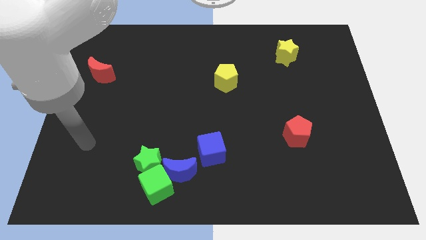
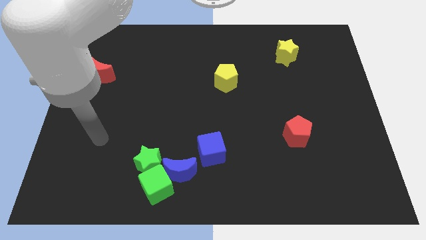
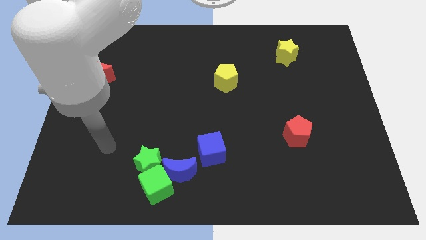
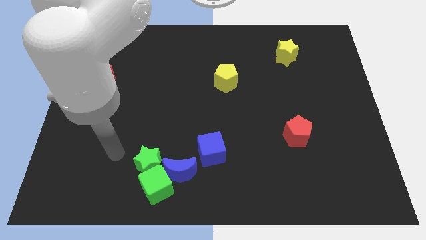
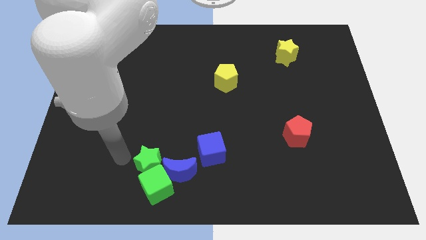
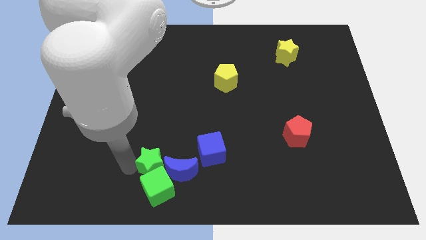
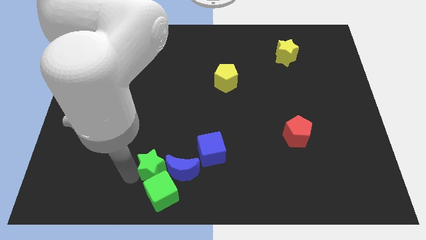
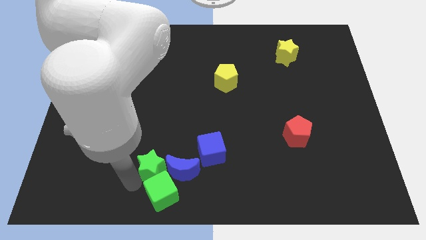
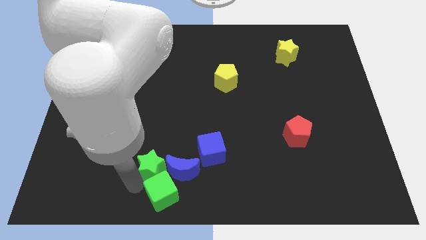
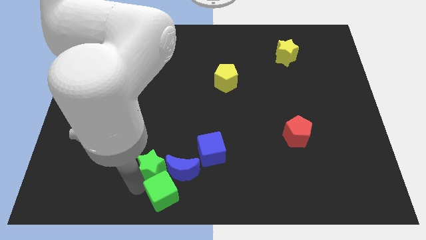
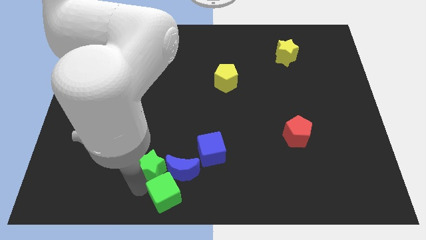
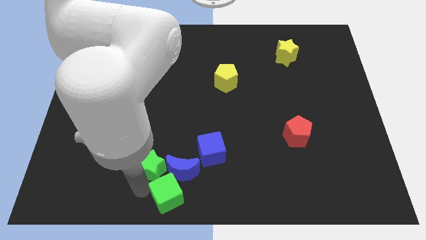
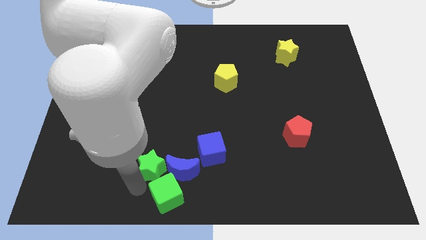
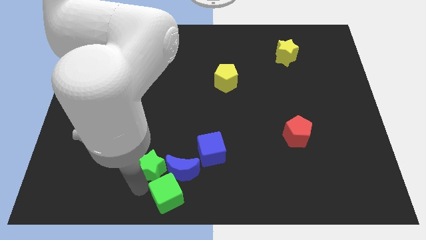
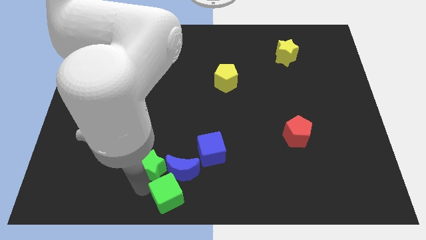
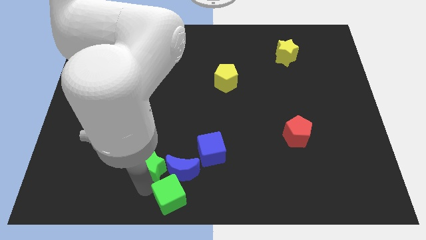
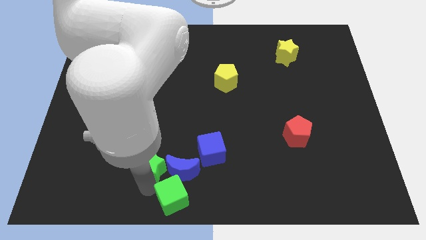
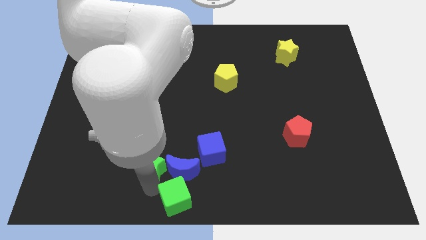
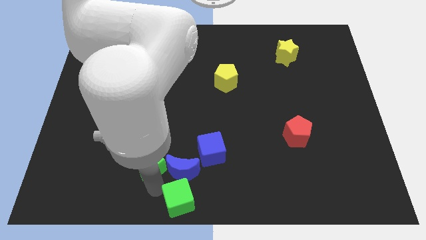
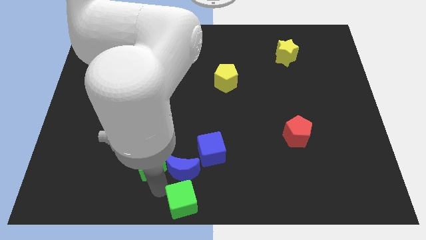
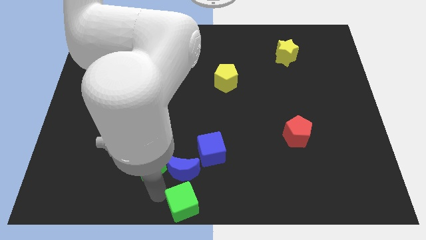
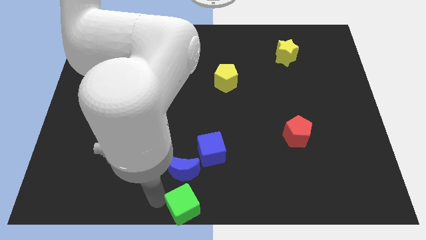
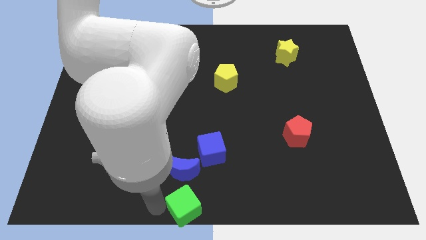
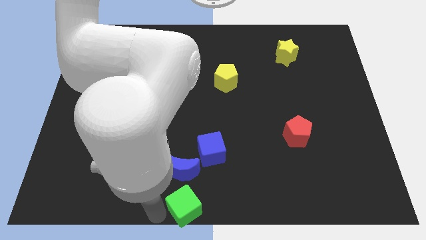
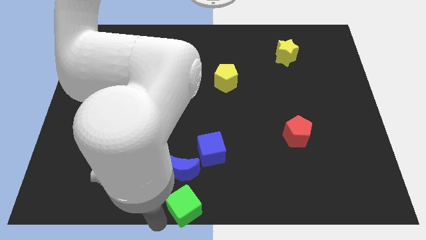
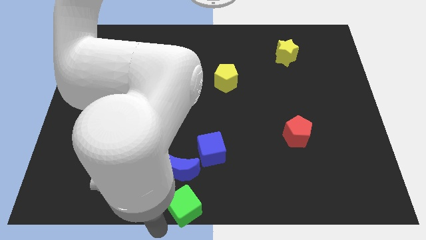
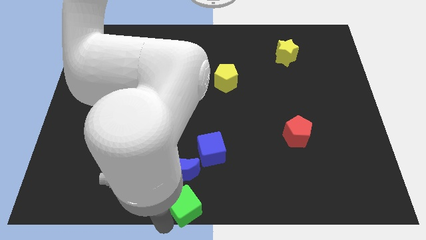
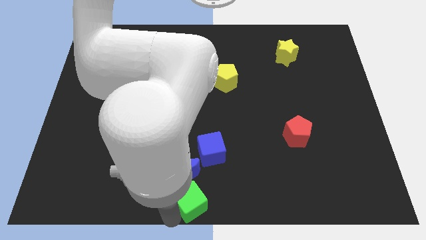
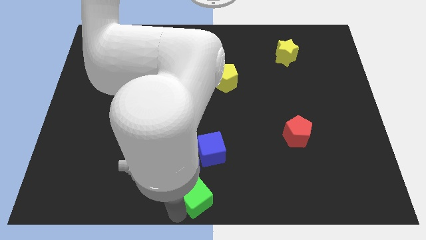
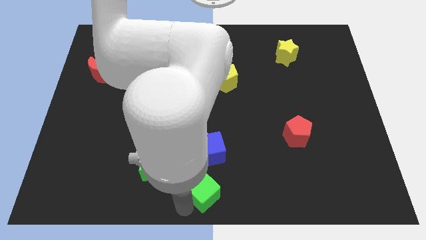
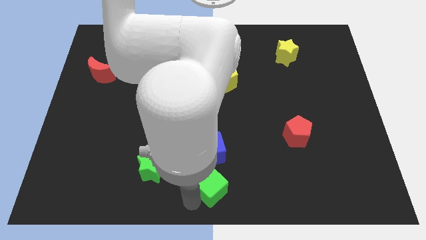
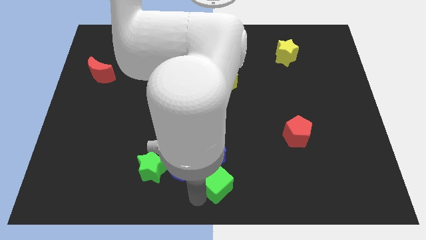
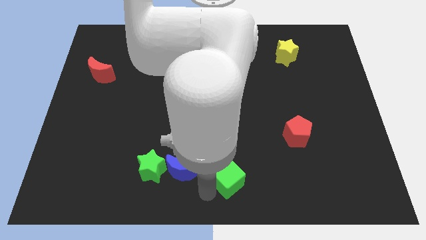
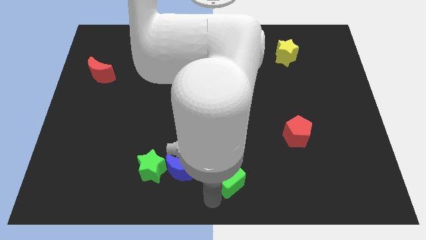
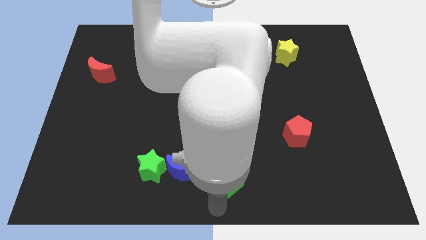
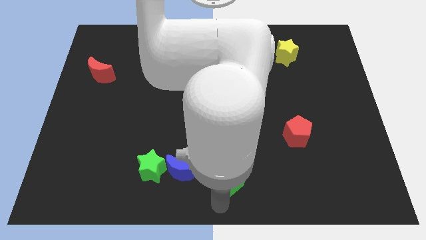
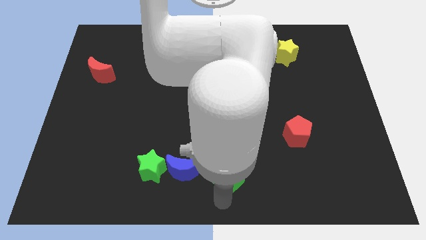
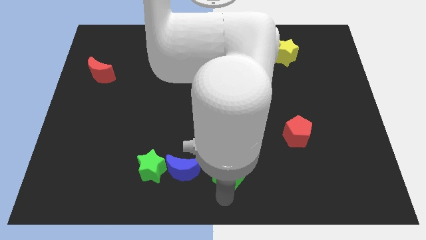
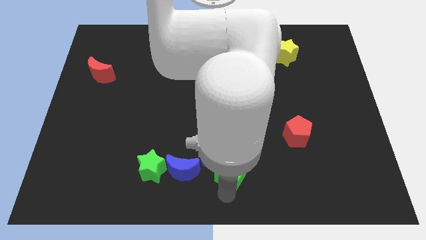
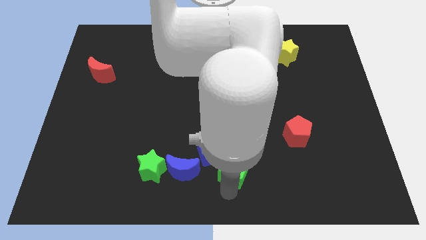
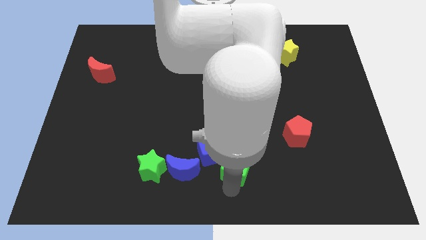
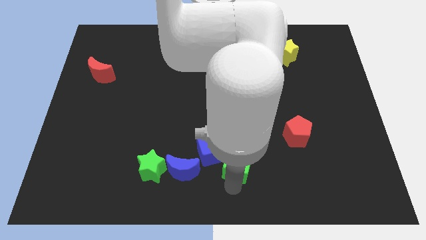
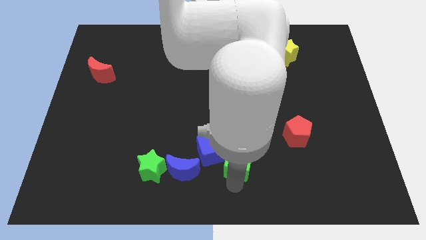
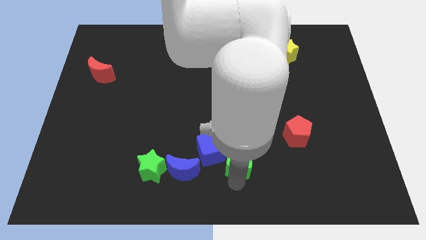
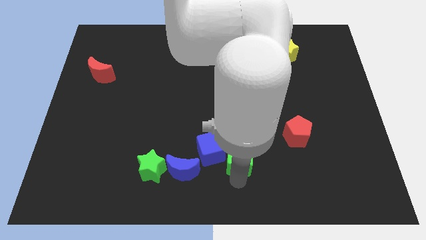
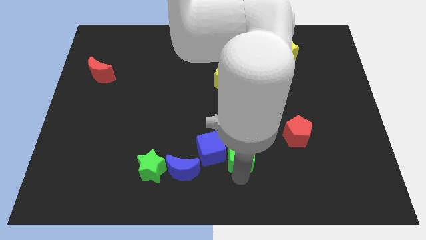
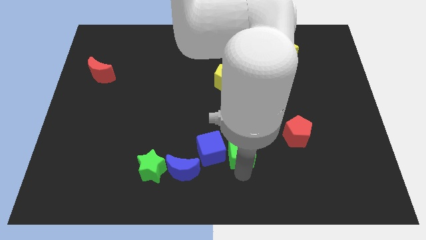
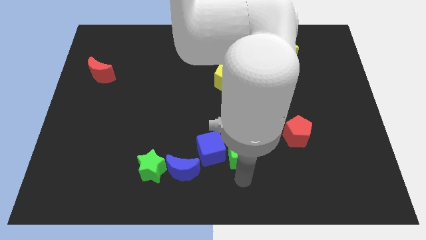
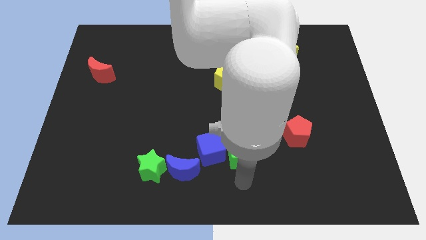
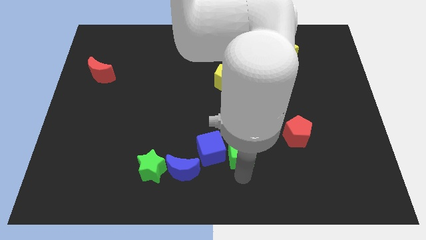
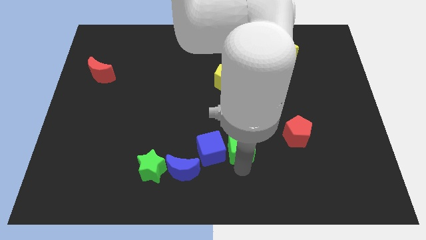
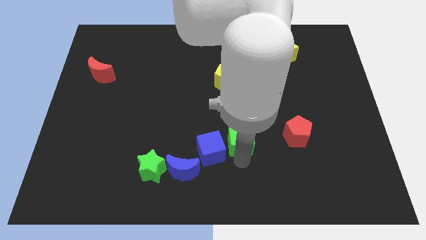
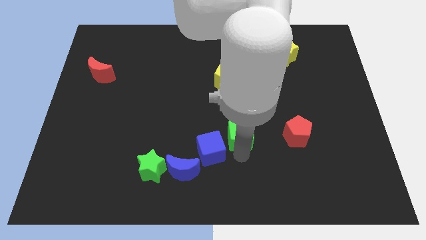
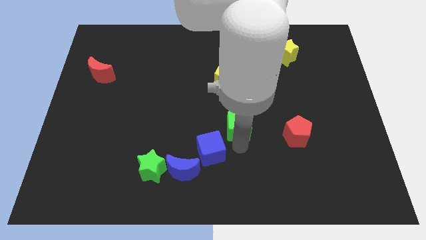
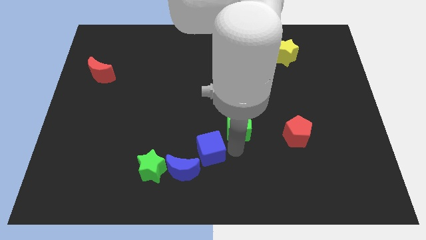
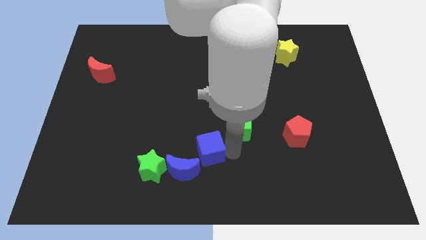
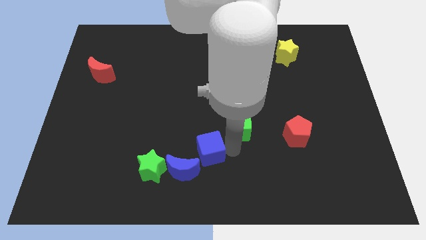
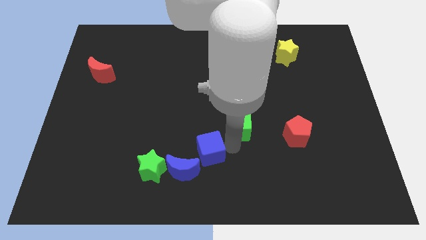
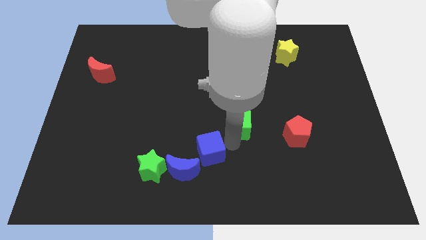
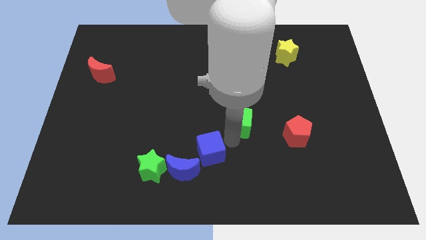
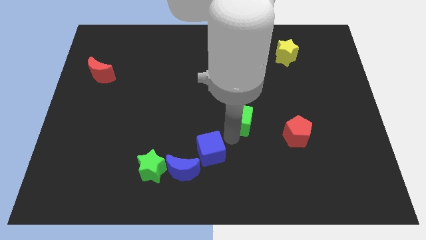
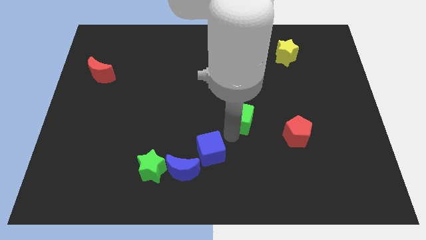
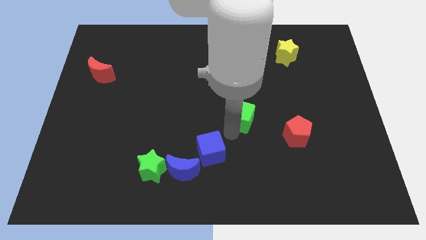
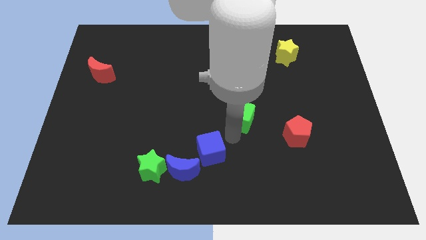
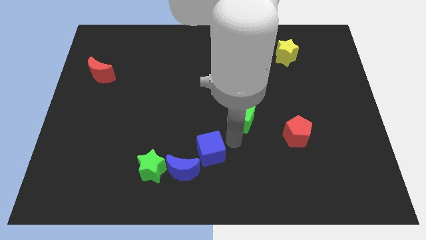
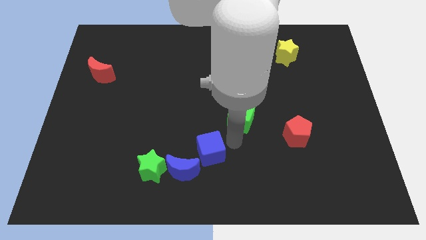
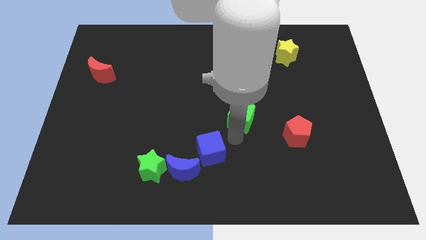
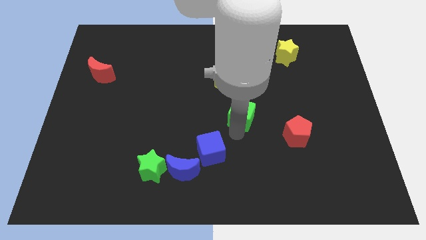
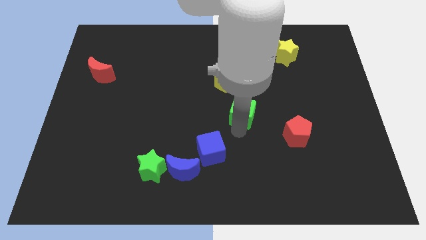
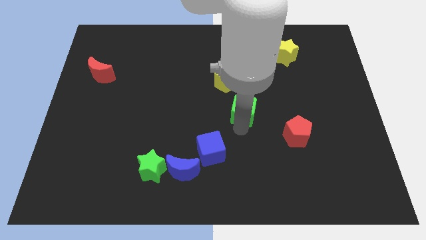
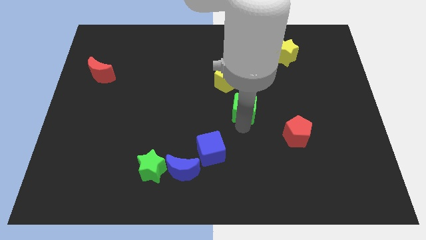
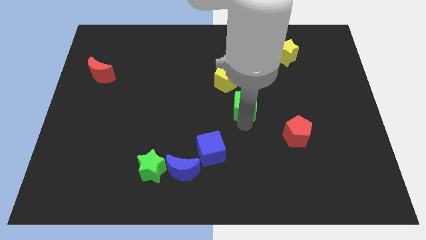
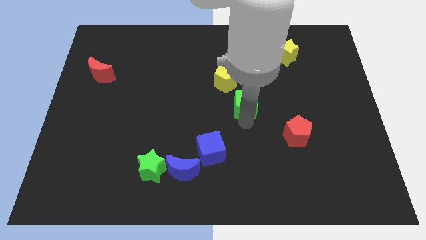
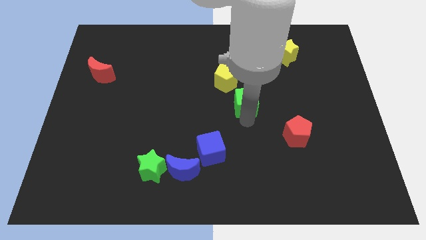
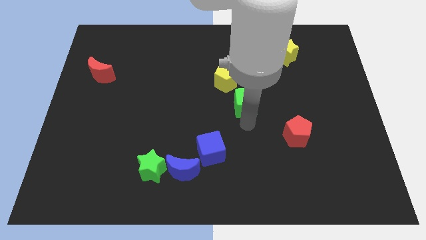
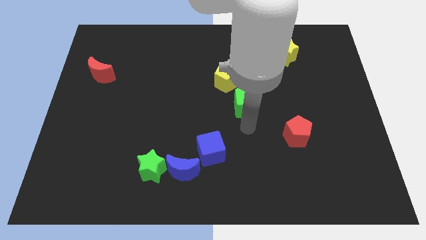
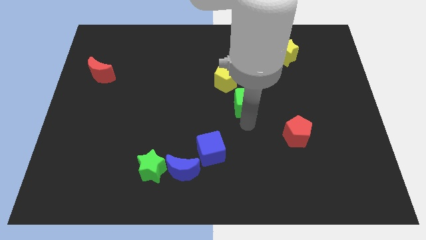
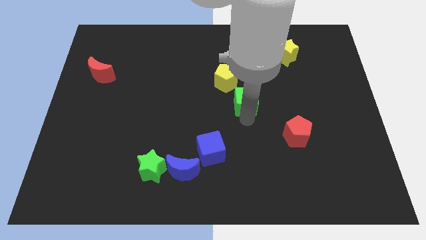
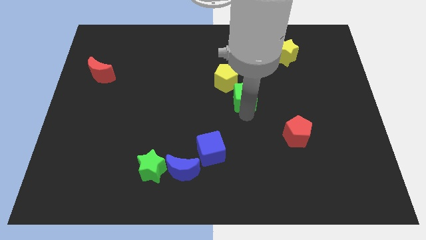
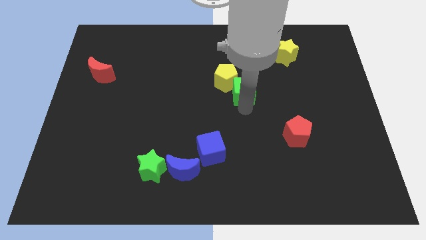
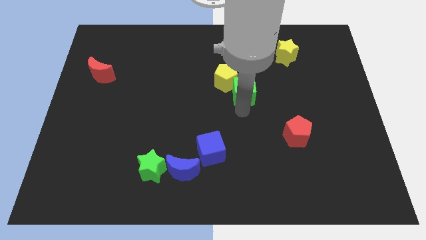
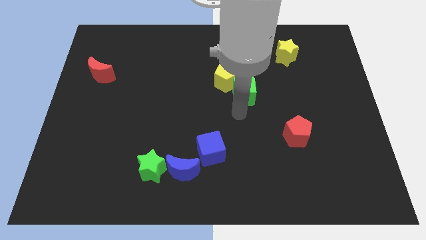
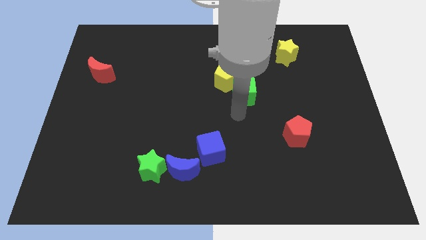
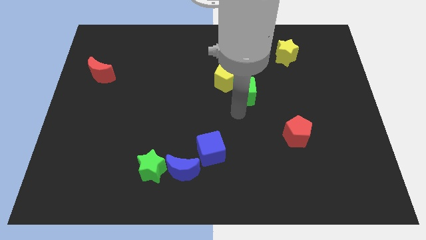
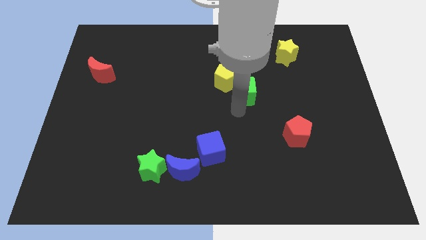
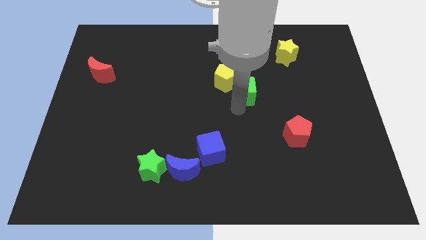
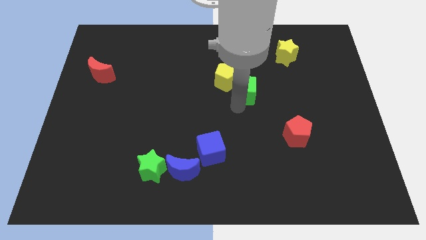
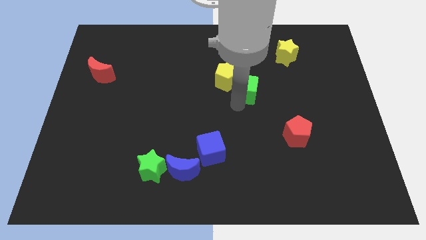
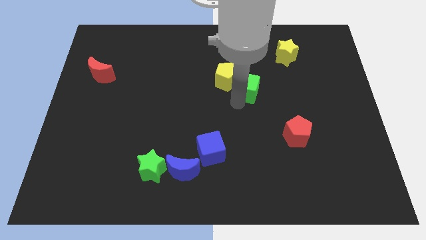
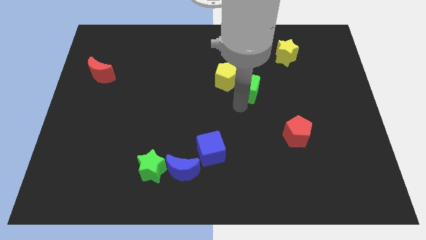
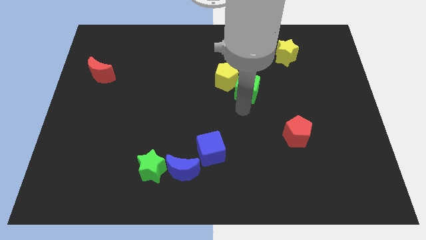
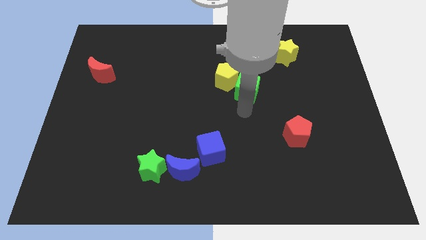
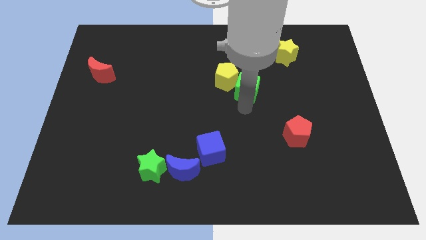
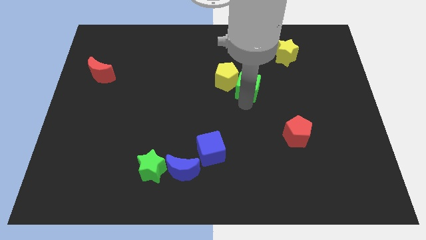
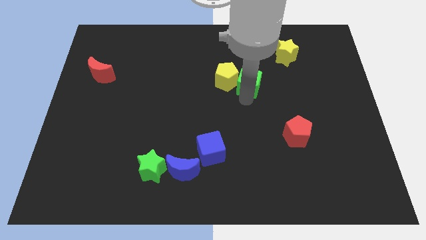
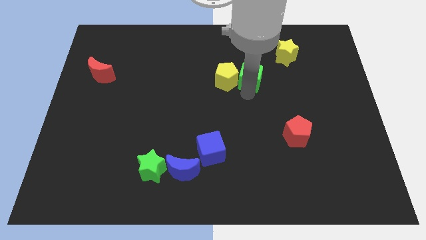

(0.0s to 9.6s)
move the green cube diagonally up and to the right of the yellow pentagon
